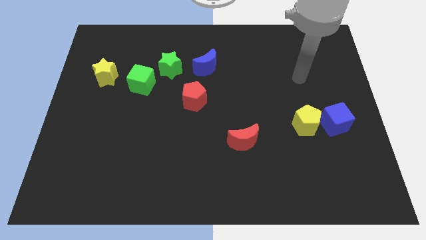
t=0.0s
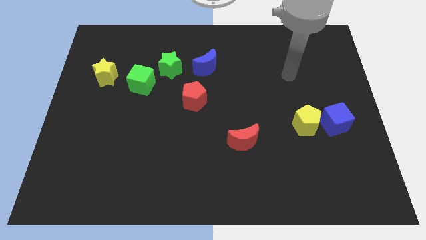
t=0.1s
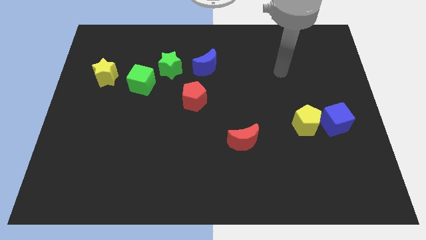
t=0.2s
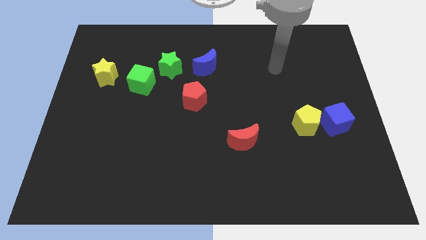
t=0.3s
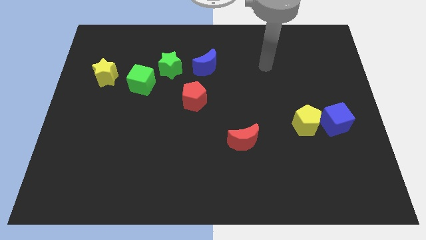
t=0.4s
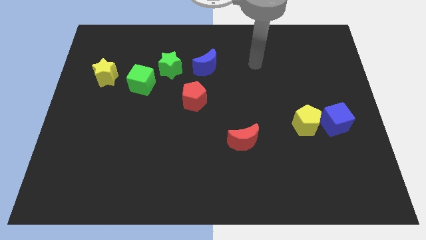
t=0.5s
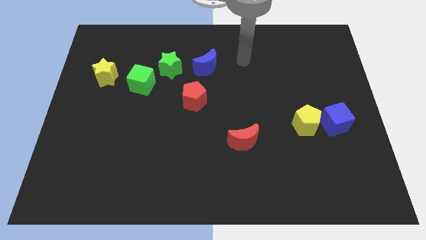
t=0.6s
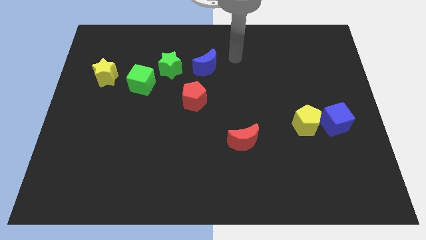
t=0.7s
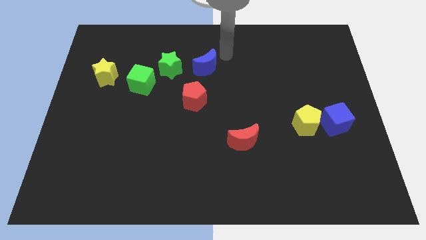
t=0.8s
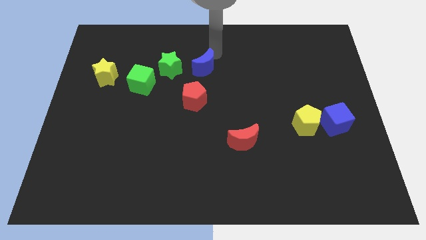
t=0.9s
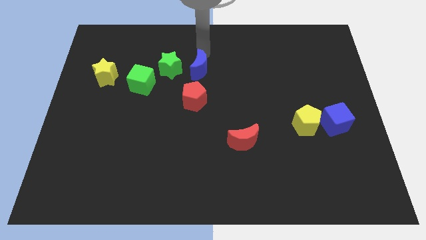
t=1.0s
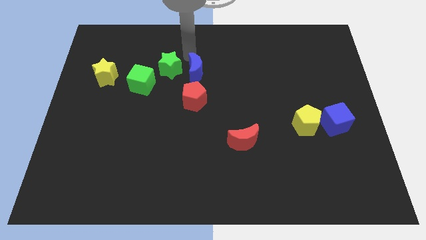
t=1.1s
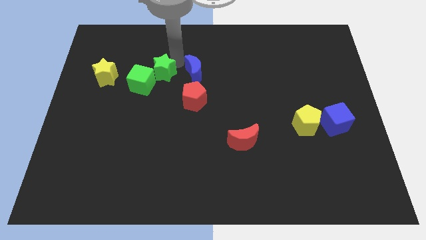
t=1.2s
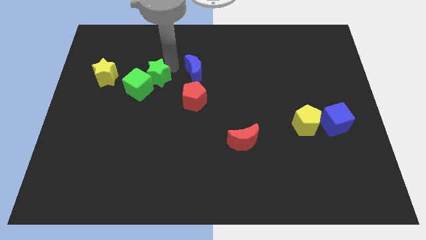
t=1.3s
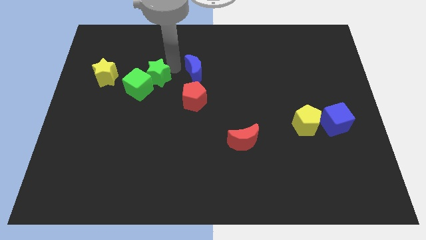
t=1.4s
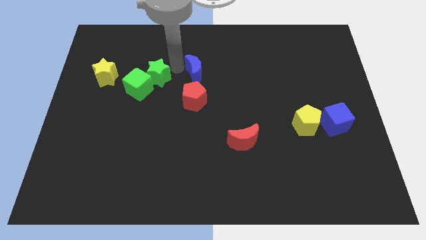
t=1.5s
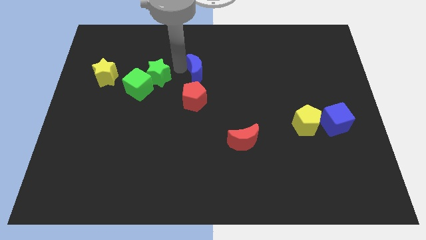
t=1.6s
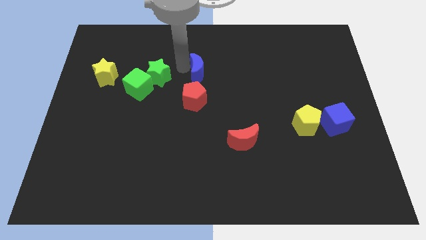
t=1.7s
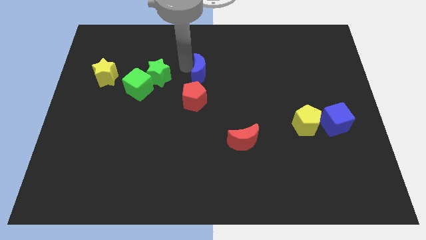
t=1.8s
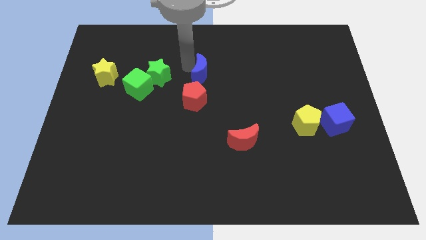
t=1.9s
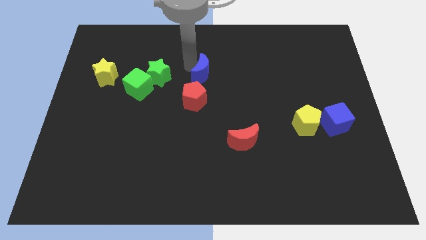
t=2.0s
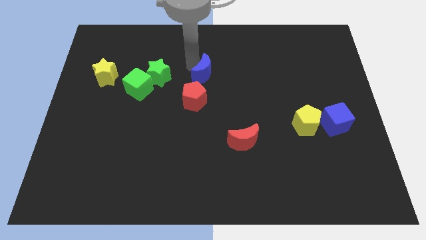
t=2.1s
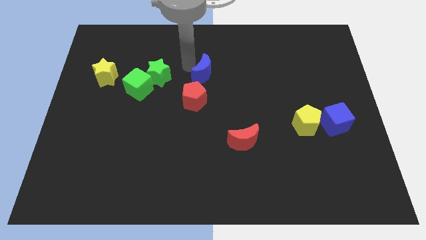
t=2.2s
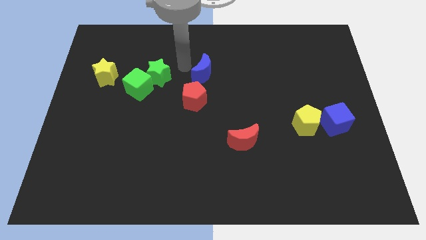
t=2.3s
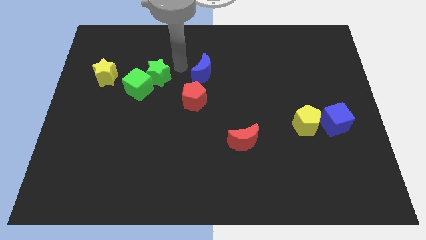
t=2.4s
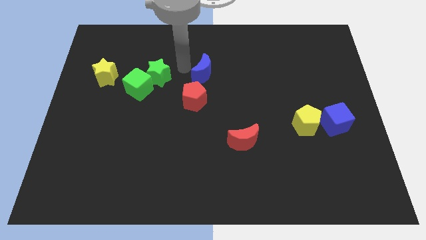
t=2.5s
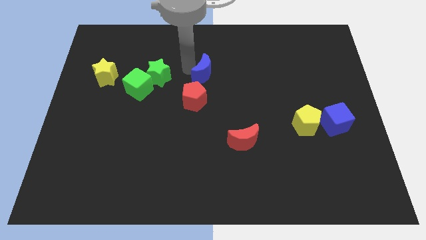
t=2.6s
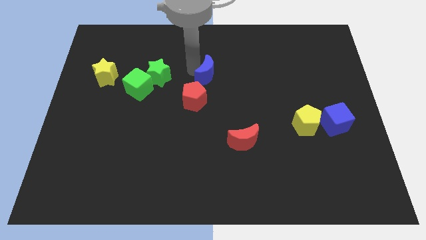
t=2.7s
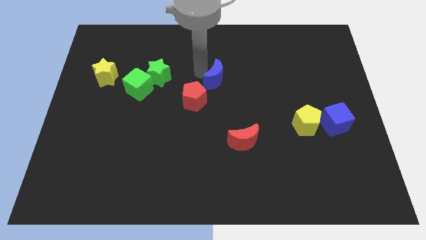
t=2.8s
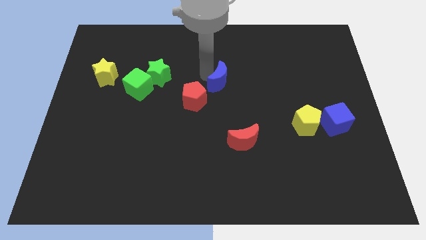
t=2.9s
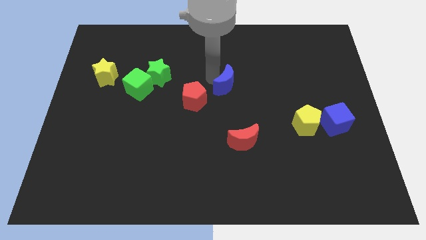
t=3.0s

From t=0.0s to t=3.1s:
push the blue moon a little down and to the right

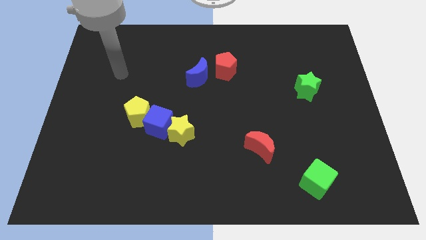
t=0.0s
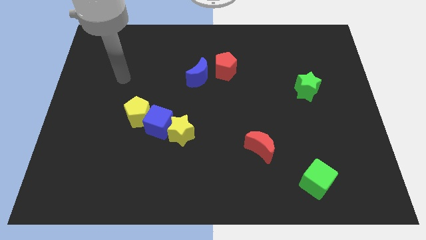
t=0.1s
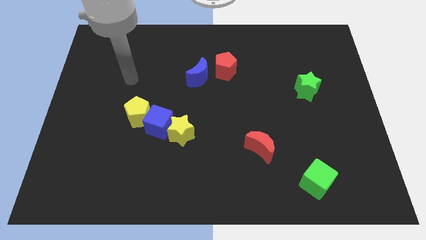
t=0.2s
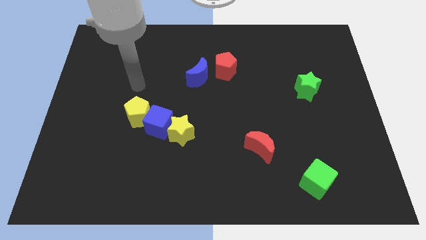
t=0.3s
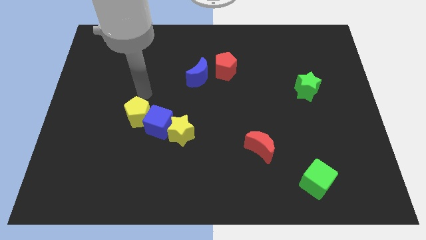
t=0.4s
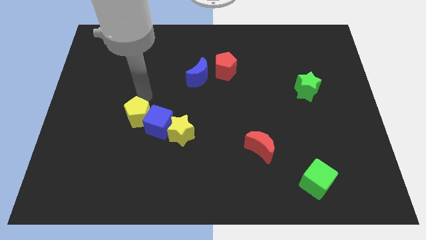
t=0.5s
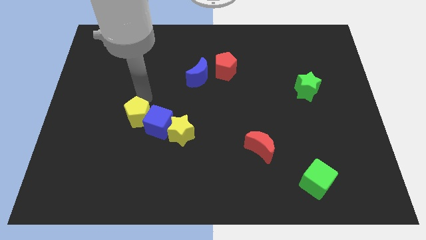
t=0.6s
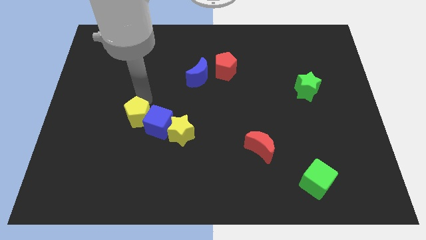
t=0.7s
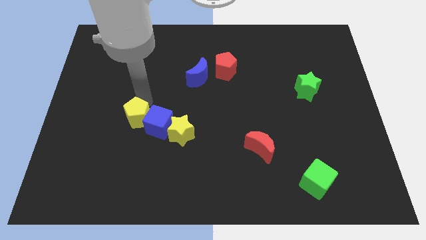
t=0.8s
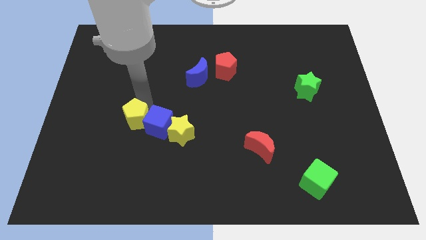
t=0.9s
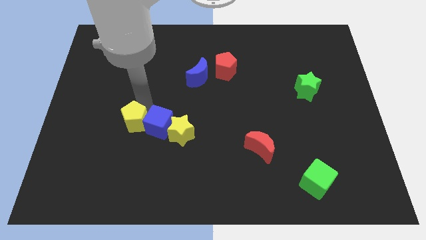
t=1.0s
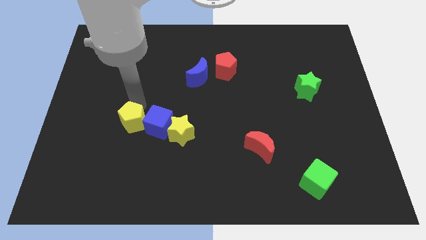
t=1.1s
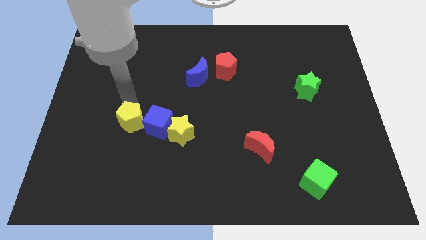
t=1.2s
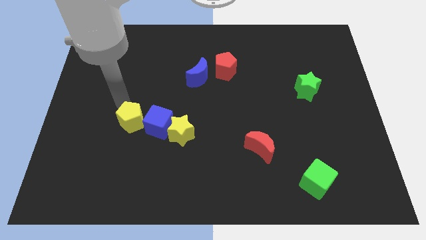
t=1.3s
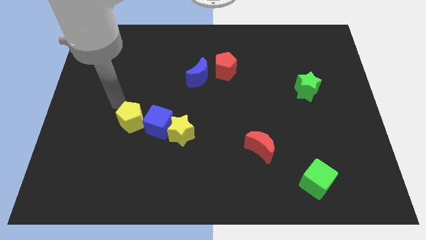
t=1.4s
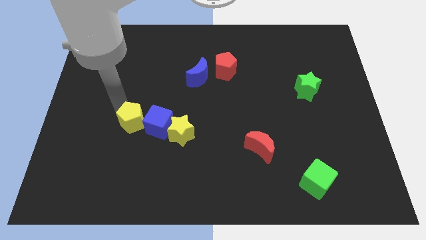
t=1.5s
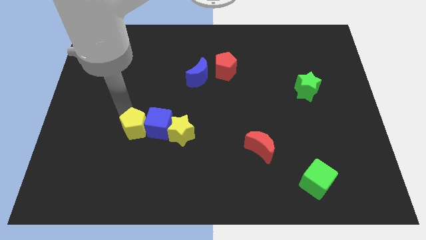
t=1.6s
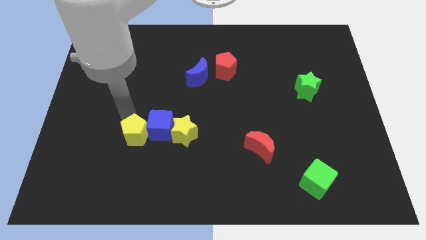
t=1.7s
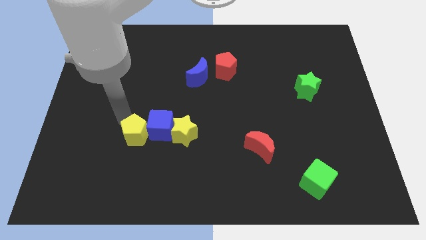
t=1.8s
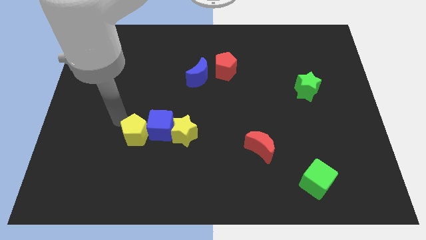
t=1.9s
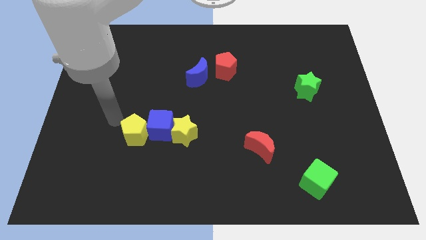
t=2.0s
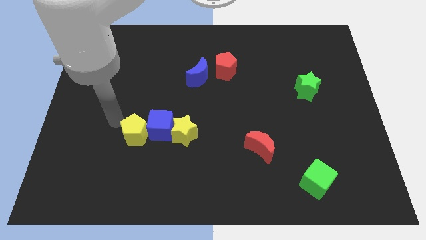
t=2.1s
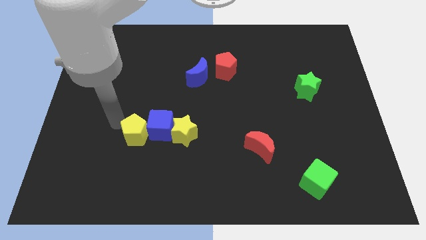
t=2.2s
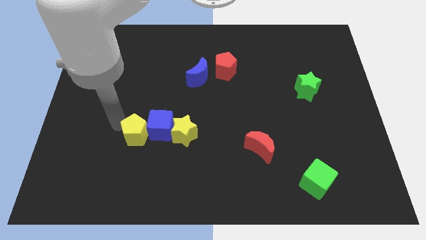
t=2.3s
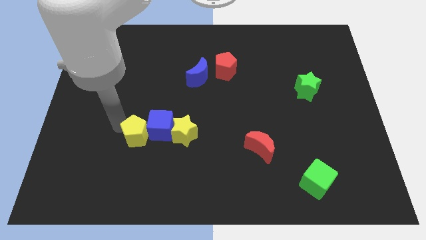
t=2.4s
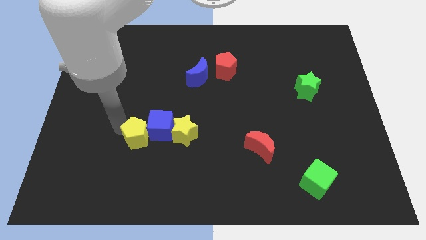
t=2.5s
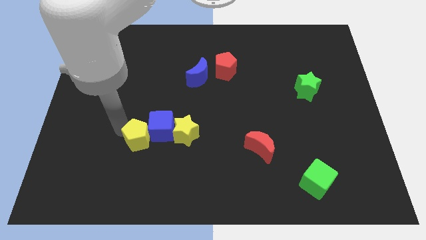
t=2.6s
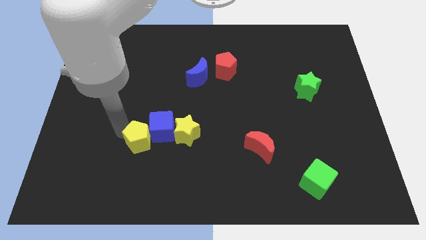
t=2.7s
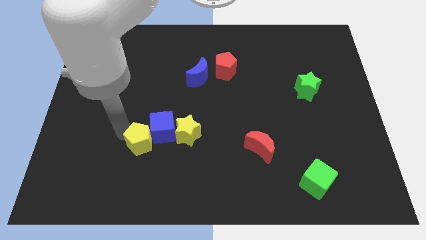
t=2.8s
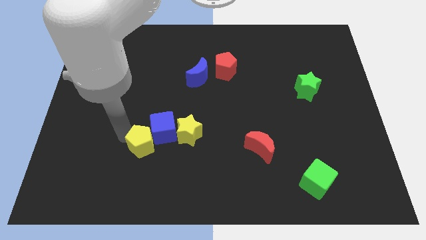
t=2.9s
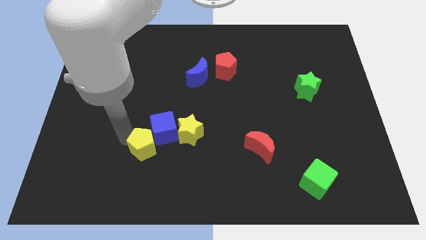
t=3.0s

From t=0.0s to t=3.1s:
slightly push the yellow pentagon diagonally downwards and right

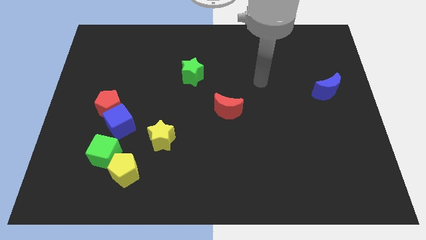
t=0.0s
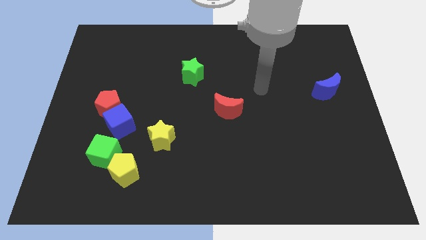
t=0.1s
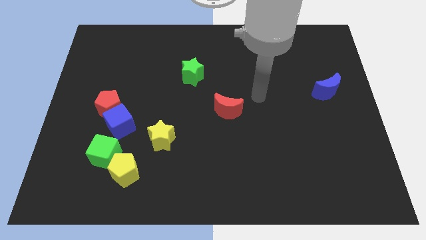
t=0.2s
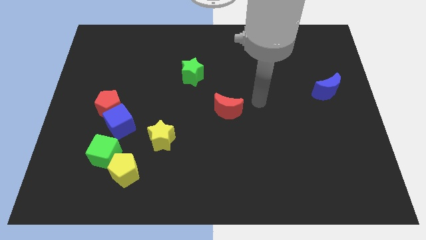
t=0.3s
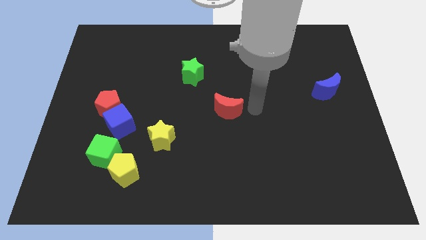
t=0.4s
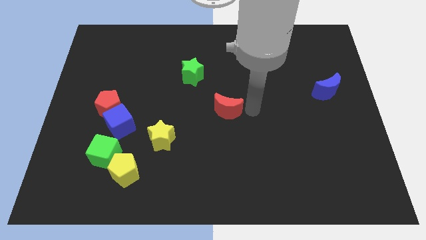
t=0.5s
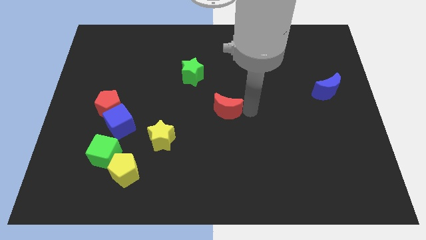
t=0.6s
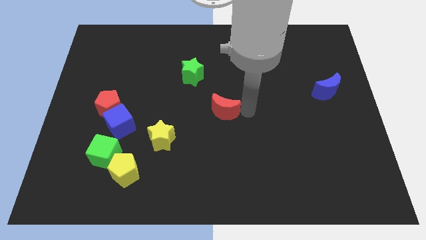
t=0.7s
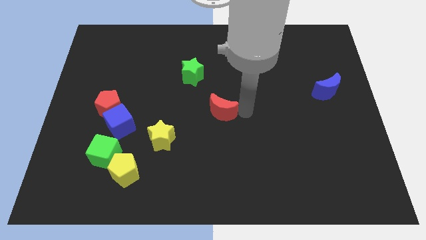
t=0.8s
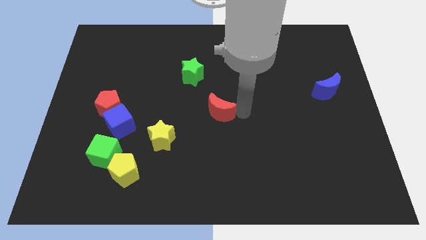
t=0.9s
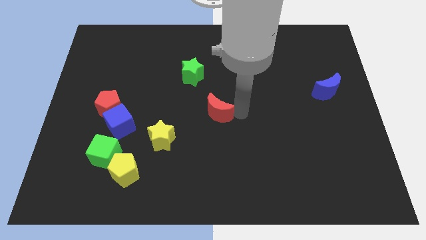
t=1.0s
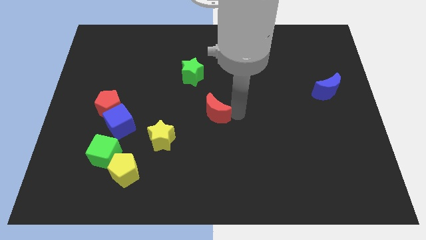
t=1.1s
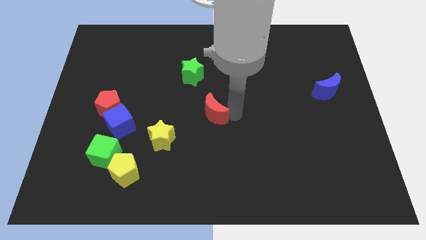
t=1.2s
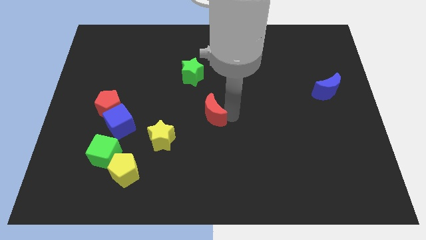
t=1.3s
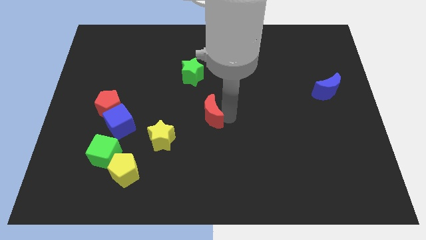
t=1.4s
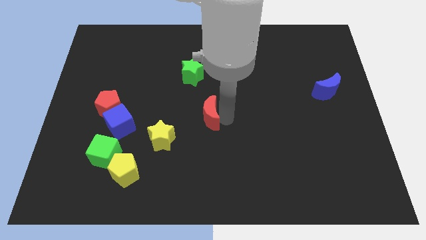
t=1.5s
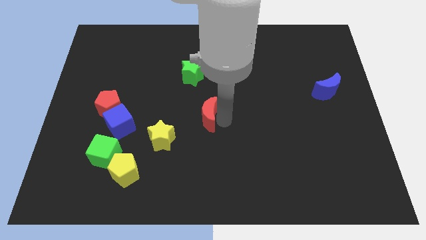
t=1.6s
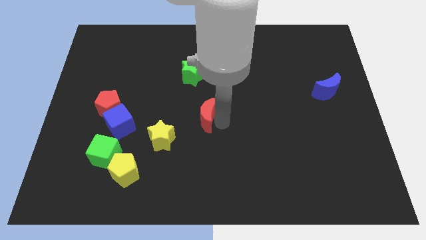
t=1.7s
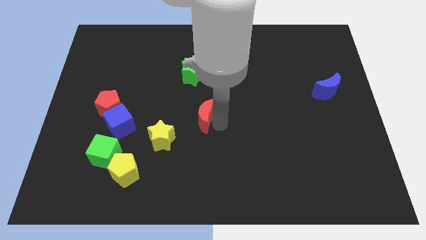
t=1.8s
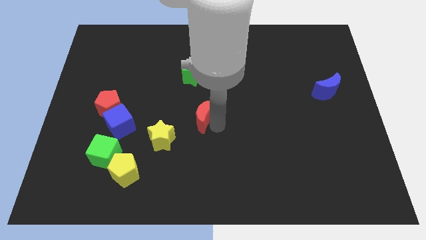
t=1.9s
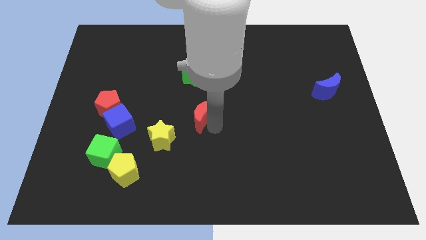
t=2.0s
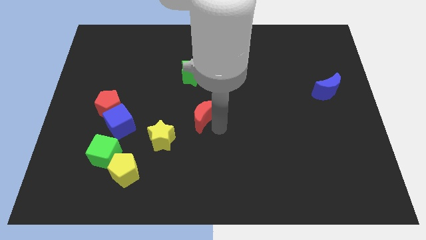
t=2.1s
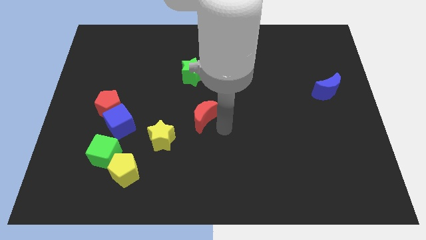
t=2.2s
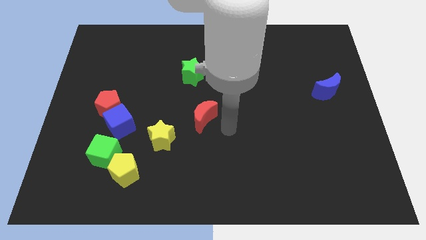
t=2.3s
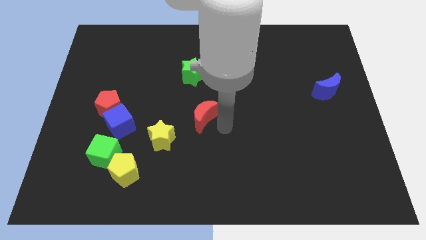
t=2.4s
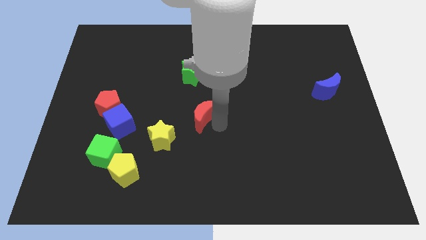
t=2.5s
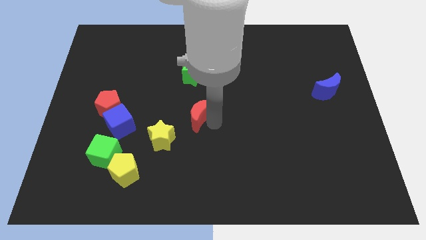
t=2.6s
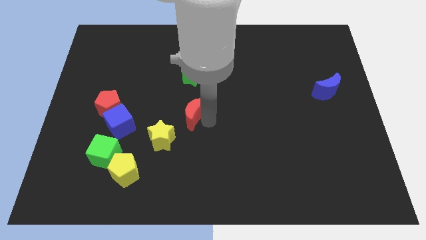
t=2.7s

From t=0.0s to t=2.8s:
slightly slide the red moon left
